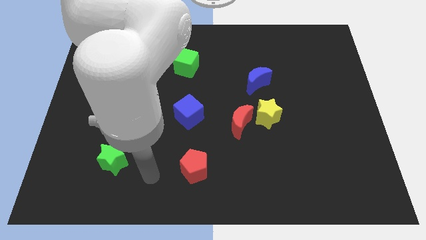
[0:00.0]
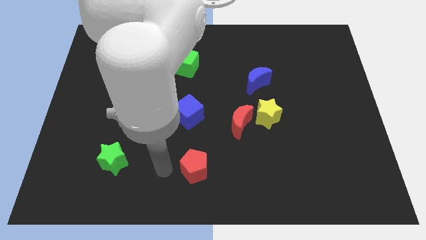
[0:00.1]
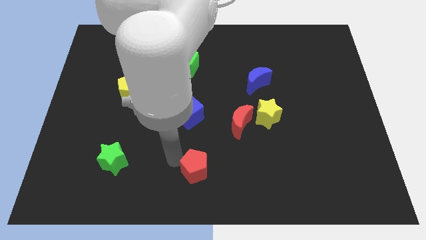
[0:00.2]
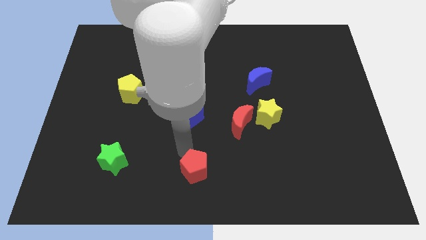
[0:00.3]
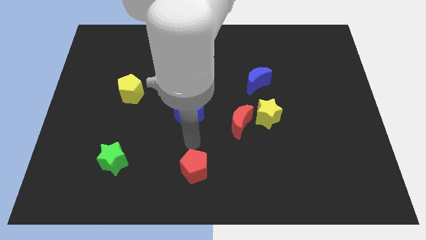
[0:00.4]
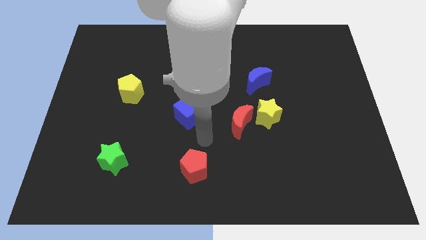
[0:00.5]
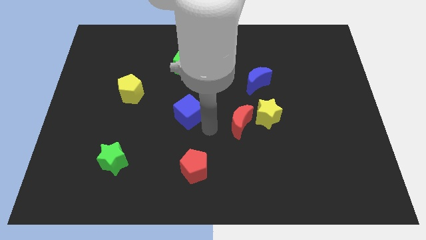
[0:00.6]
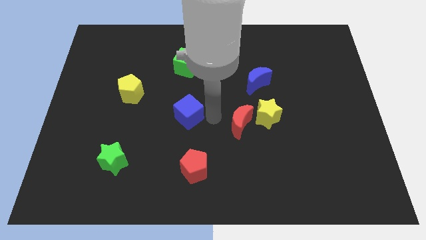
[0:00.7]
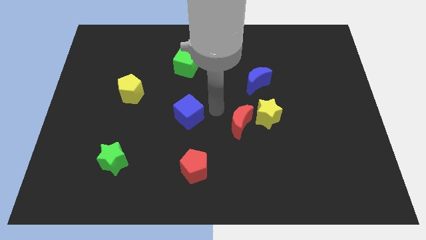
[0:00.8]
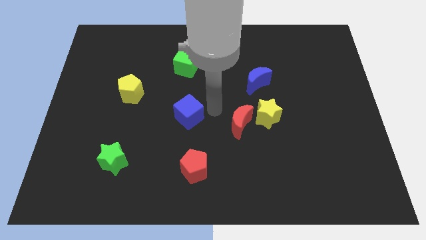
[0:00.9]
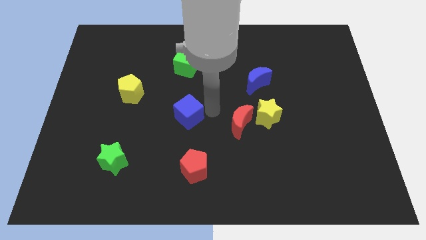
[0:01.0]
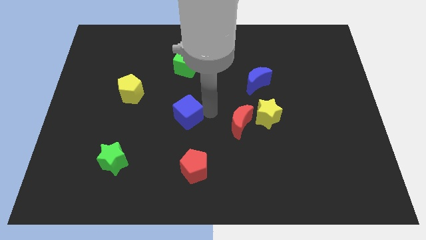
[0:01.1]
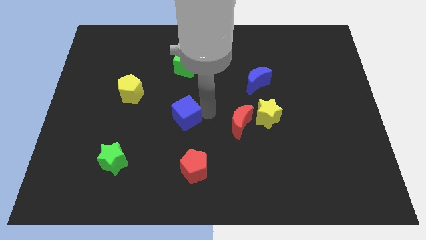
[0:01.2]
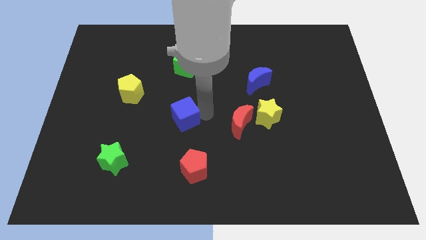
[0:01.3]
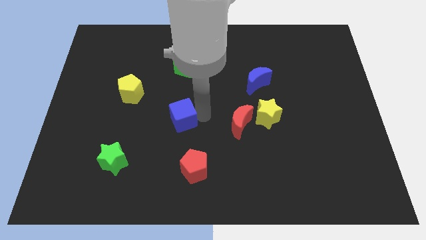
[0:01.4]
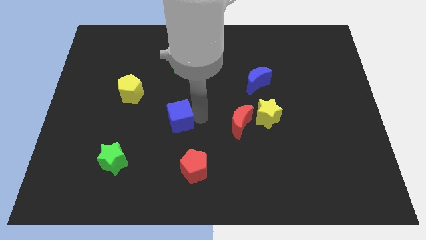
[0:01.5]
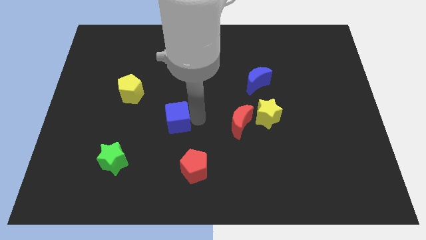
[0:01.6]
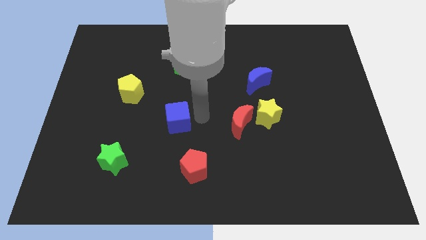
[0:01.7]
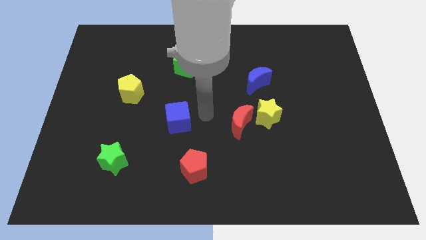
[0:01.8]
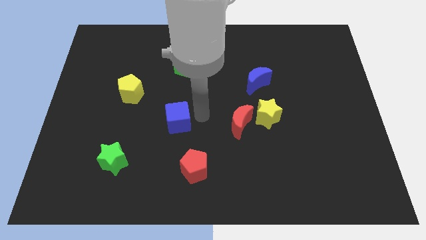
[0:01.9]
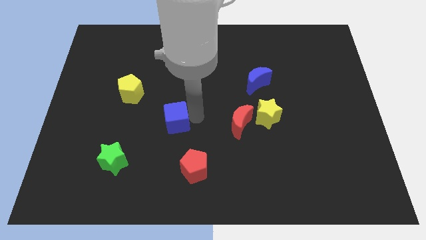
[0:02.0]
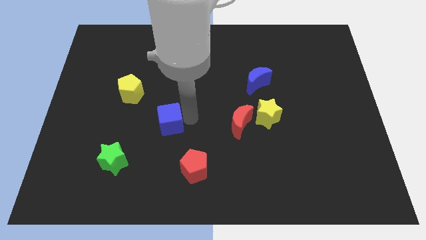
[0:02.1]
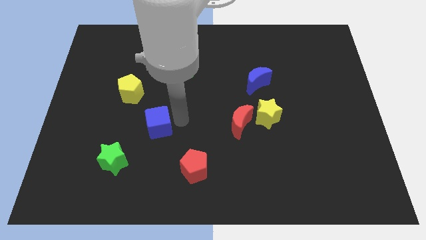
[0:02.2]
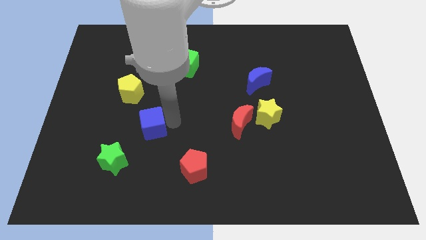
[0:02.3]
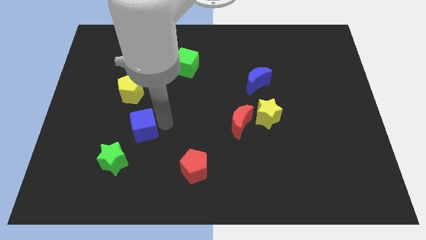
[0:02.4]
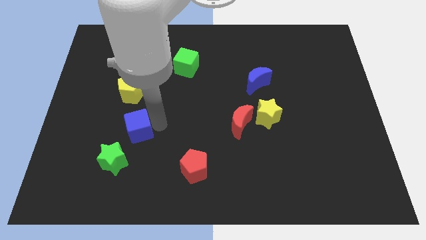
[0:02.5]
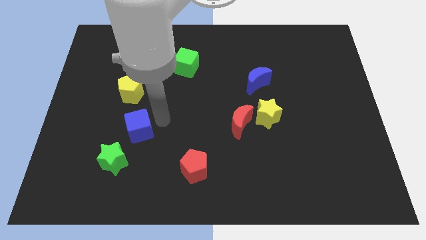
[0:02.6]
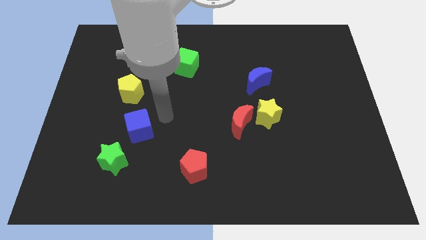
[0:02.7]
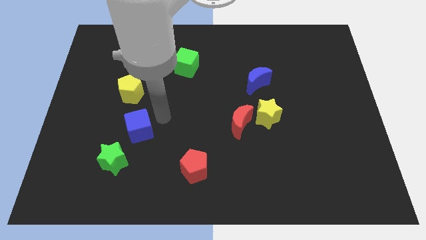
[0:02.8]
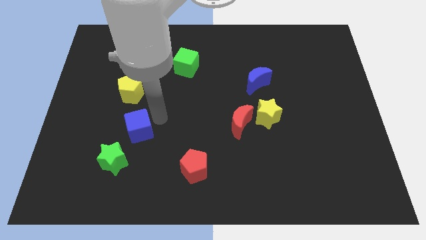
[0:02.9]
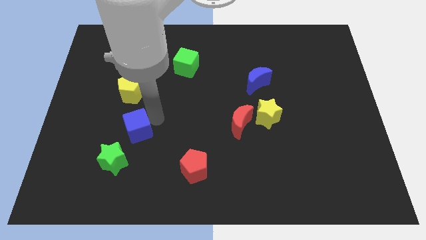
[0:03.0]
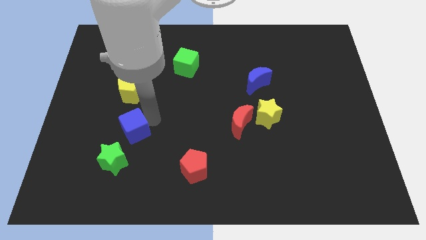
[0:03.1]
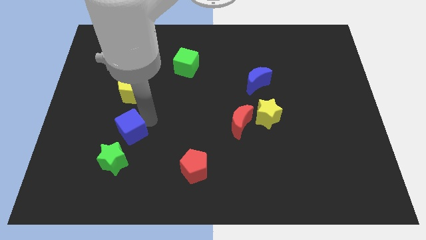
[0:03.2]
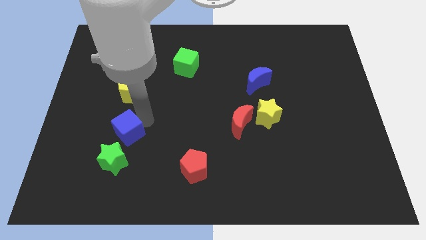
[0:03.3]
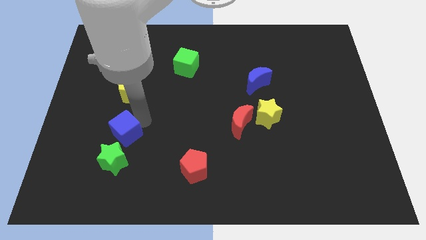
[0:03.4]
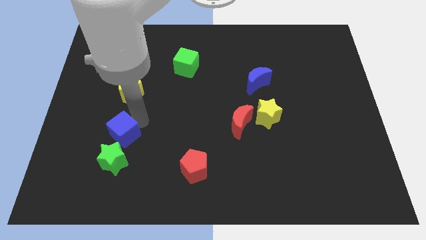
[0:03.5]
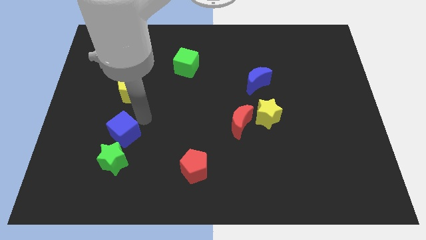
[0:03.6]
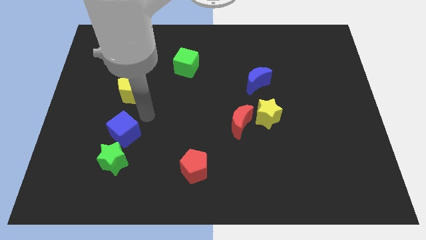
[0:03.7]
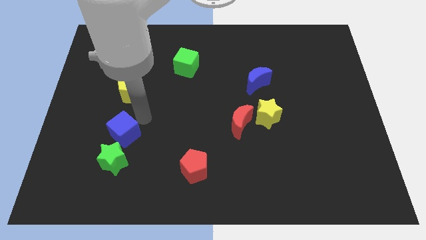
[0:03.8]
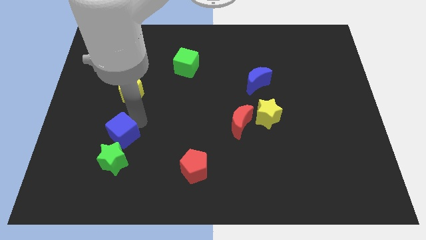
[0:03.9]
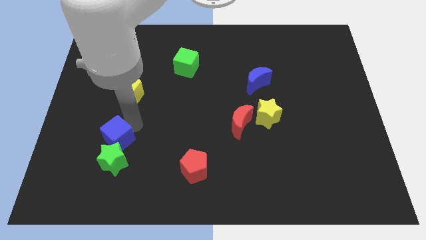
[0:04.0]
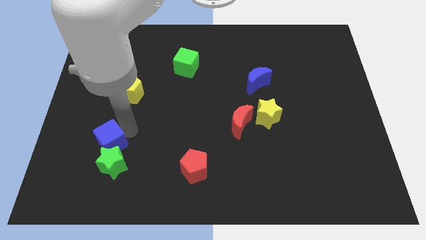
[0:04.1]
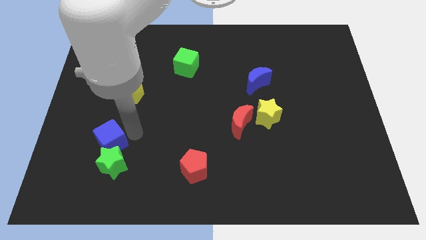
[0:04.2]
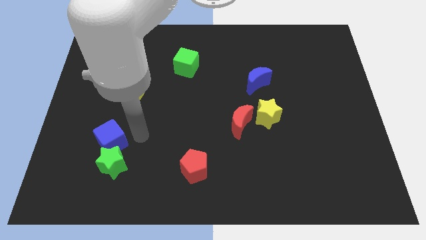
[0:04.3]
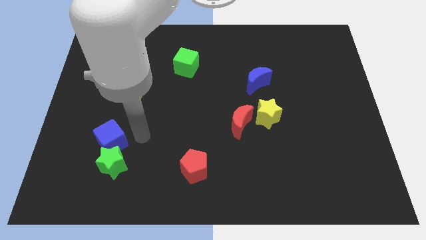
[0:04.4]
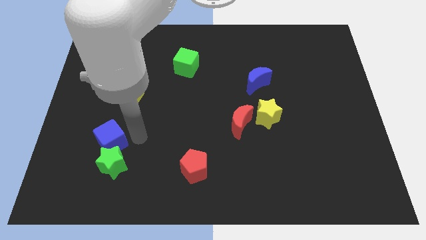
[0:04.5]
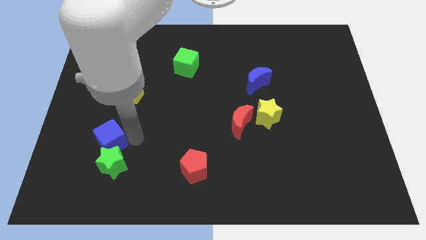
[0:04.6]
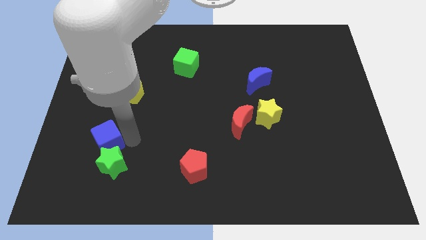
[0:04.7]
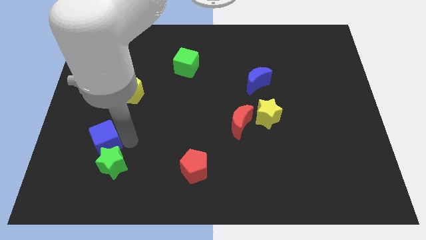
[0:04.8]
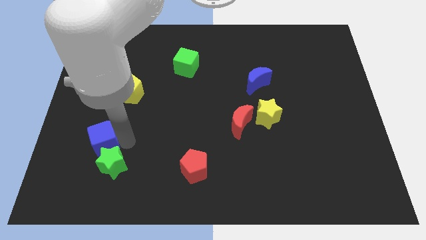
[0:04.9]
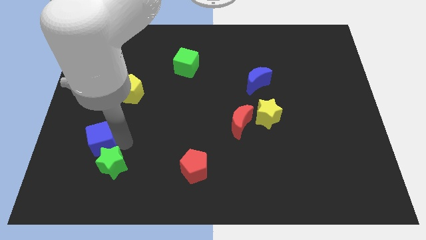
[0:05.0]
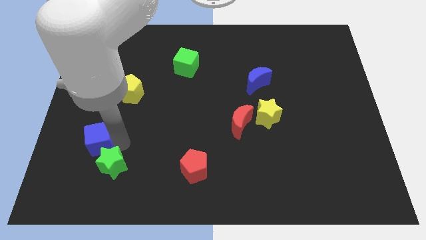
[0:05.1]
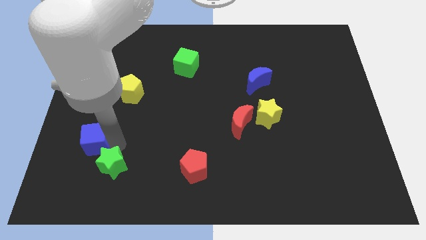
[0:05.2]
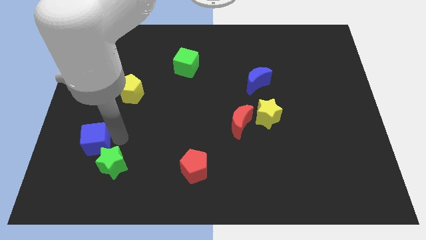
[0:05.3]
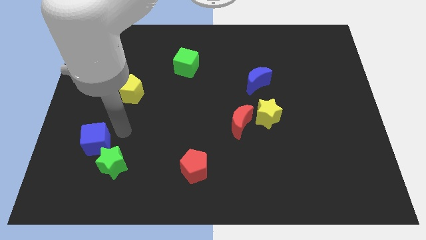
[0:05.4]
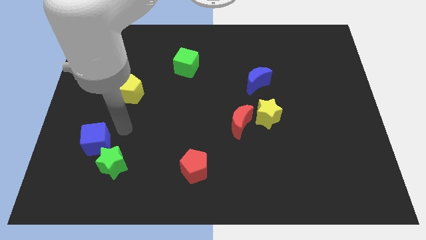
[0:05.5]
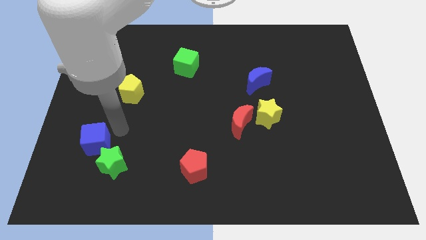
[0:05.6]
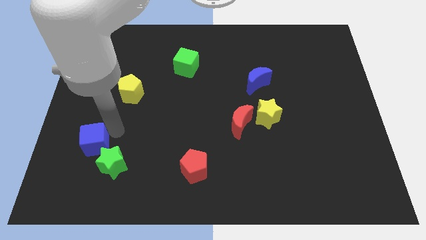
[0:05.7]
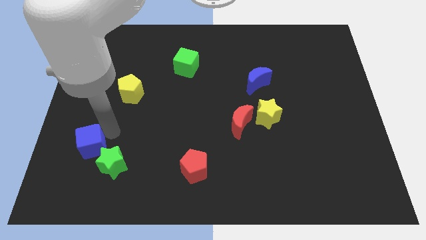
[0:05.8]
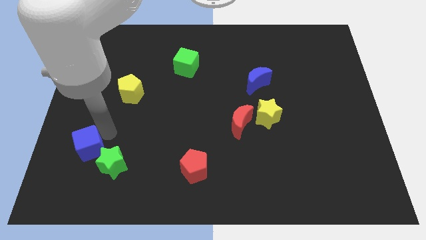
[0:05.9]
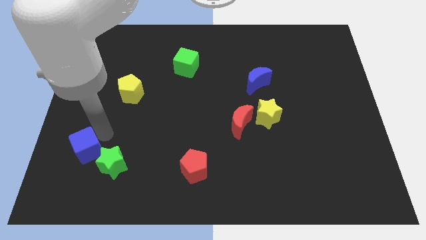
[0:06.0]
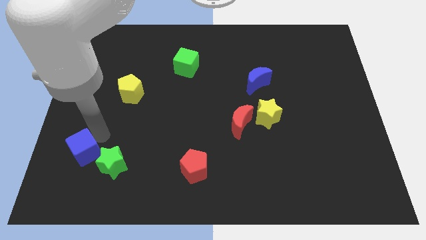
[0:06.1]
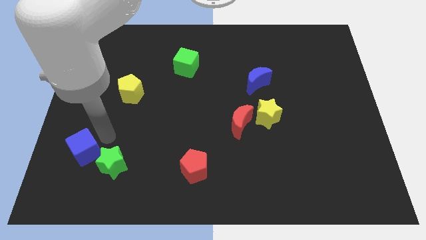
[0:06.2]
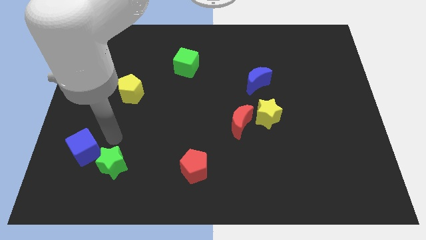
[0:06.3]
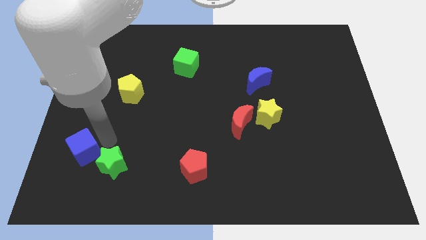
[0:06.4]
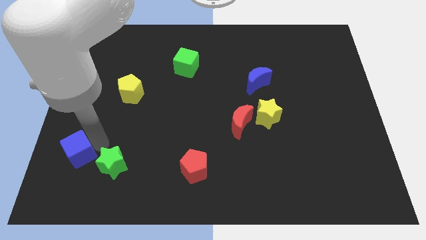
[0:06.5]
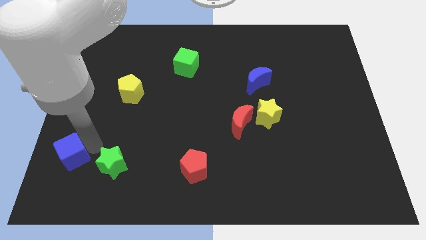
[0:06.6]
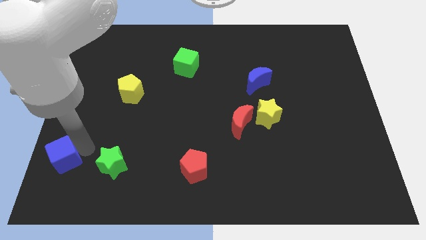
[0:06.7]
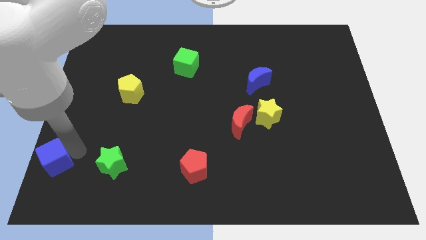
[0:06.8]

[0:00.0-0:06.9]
move the blue cube to the bottom left of the board
